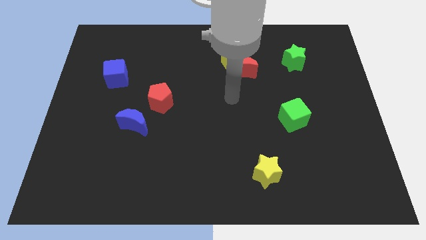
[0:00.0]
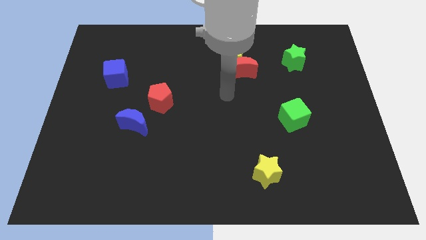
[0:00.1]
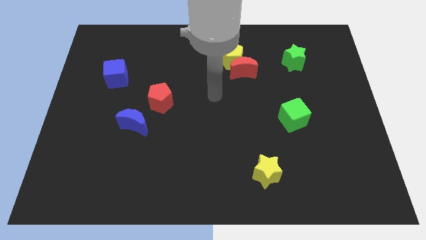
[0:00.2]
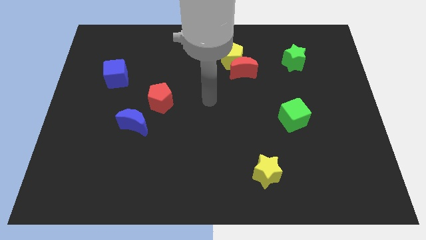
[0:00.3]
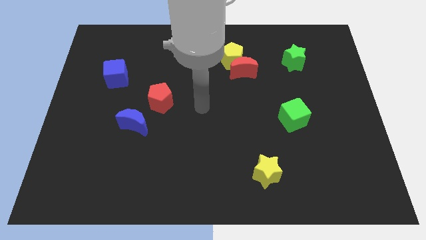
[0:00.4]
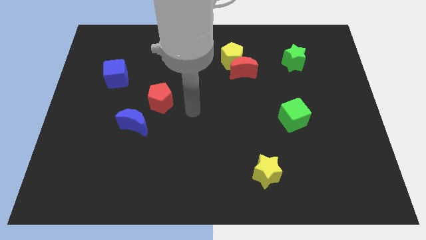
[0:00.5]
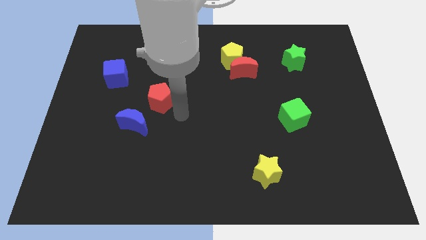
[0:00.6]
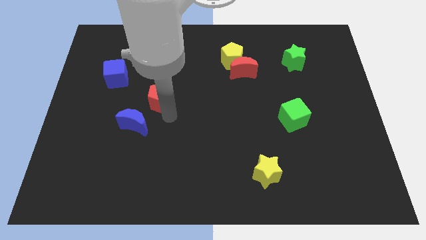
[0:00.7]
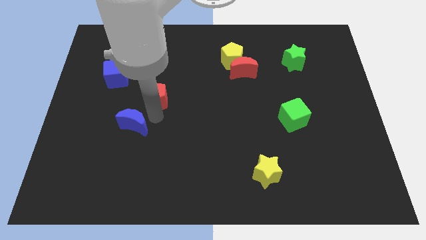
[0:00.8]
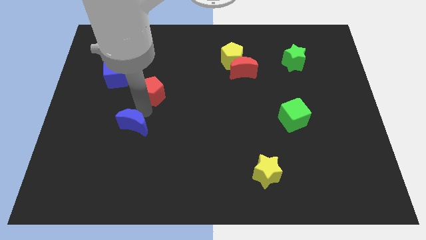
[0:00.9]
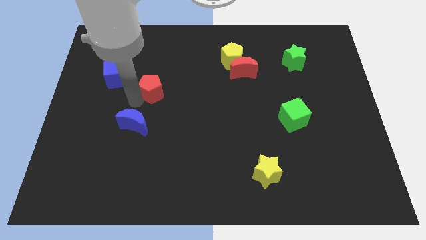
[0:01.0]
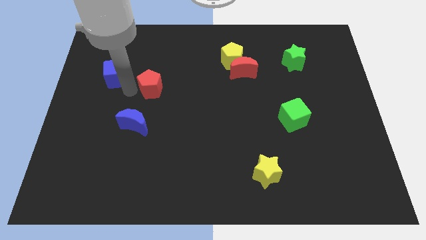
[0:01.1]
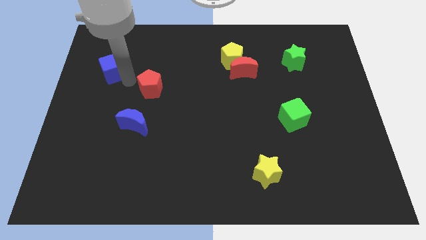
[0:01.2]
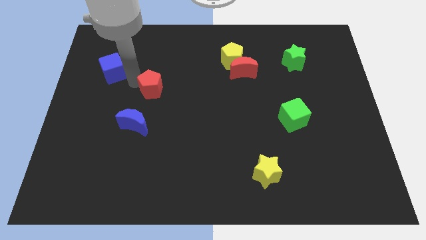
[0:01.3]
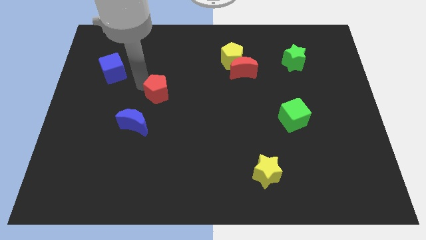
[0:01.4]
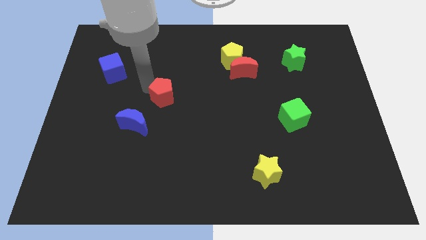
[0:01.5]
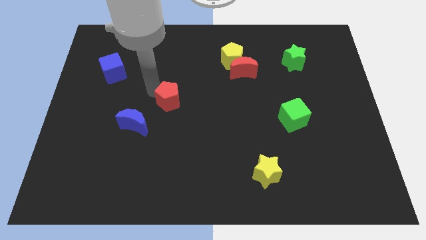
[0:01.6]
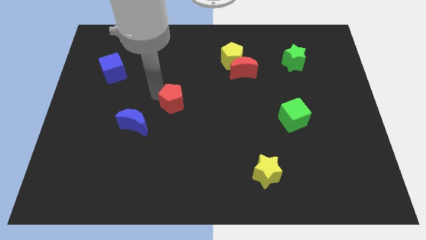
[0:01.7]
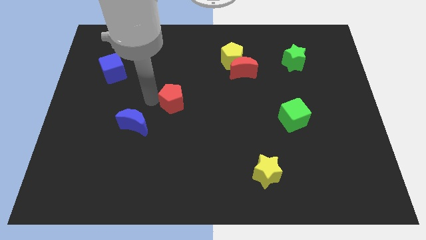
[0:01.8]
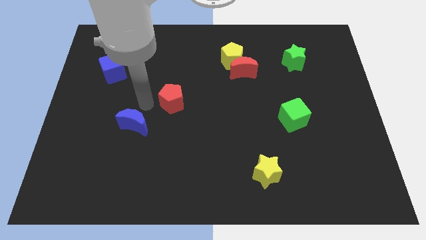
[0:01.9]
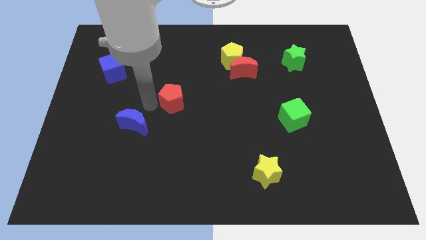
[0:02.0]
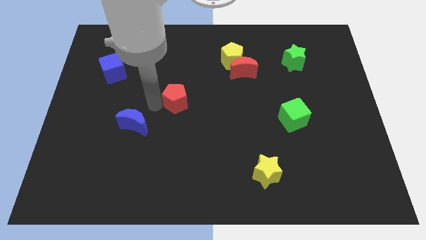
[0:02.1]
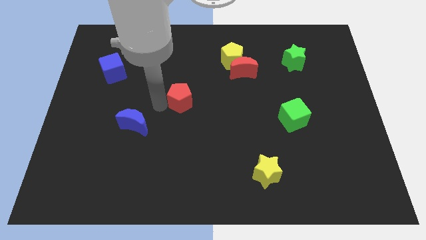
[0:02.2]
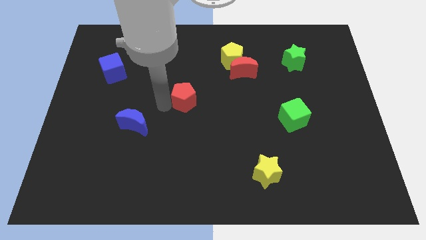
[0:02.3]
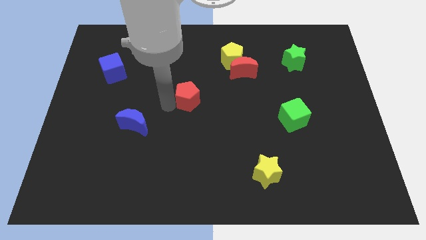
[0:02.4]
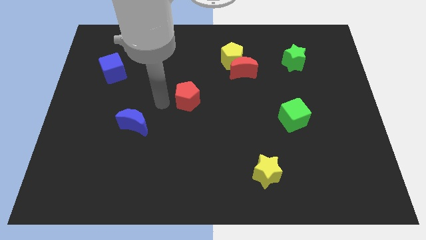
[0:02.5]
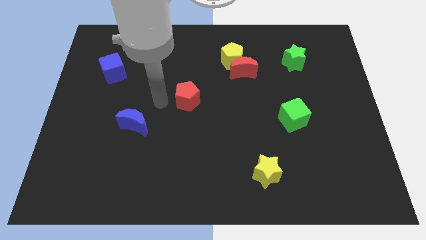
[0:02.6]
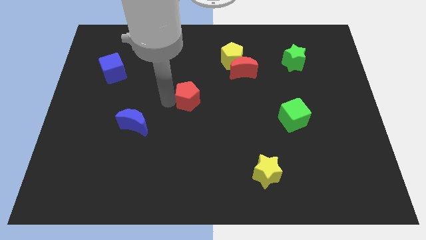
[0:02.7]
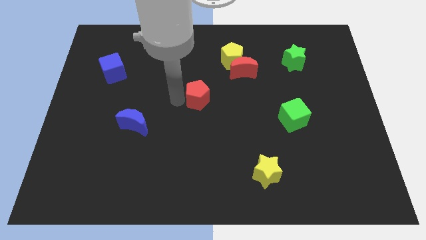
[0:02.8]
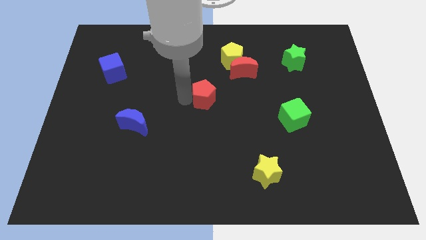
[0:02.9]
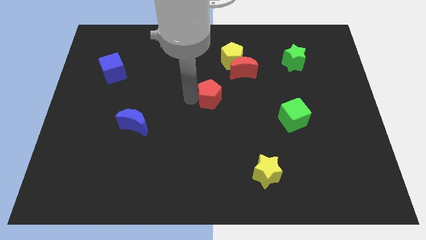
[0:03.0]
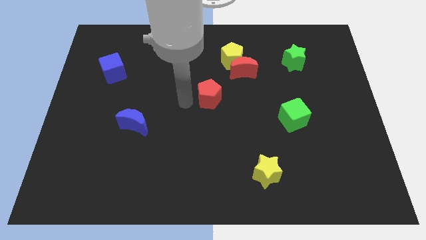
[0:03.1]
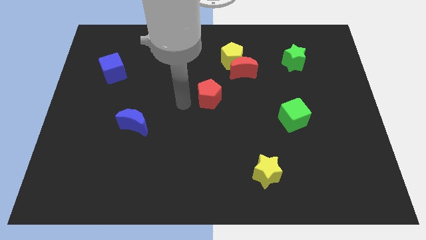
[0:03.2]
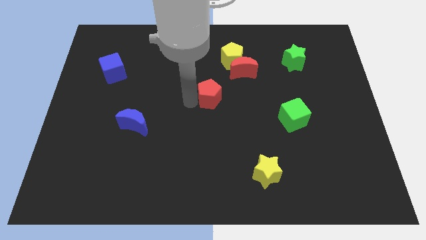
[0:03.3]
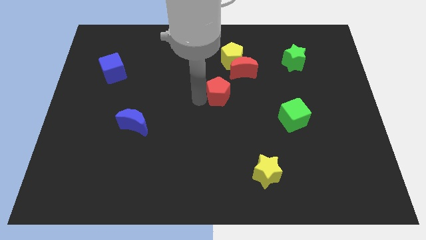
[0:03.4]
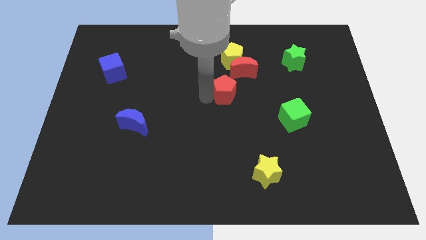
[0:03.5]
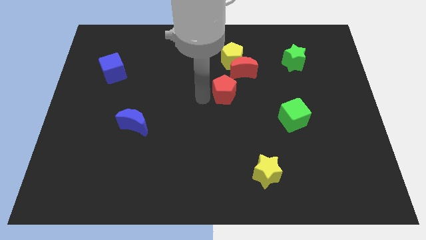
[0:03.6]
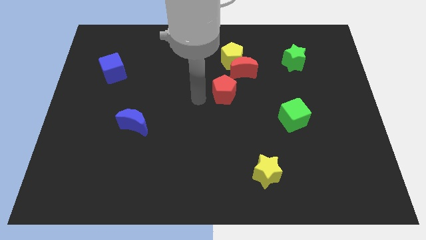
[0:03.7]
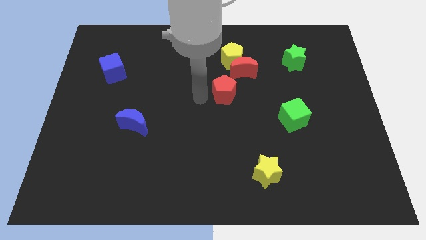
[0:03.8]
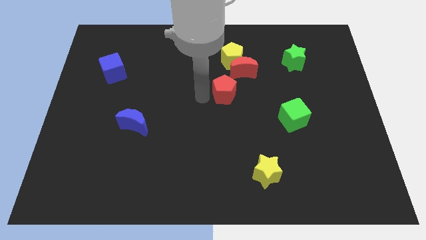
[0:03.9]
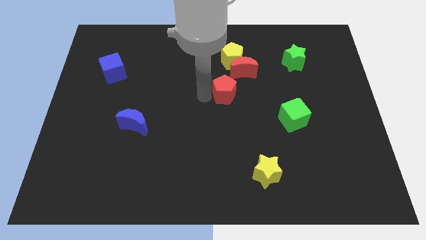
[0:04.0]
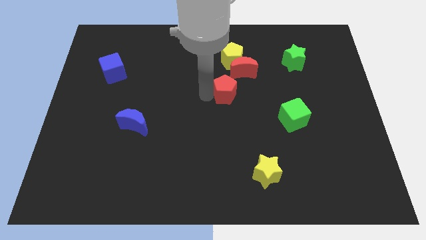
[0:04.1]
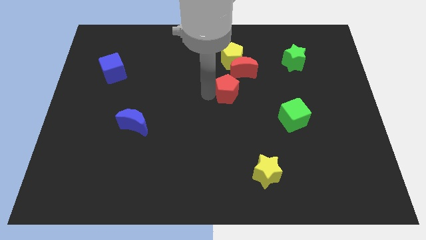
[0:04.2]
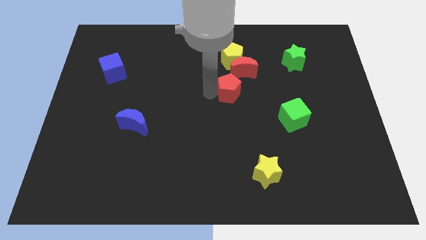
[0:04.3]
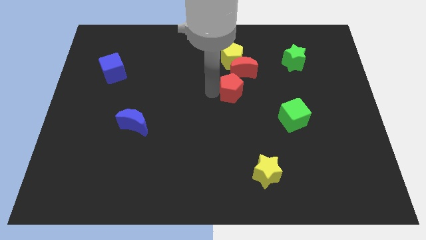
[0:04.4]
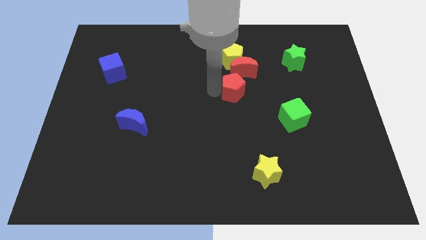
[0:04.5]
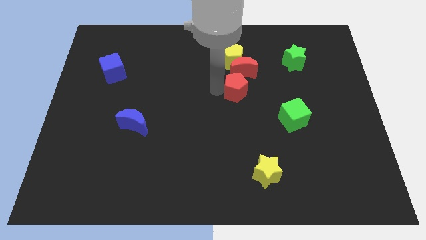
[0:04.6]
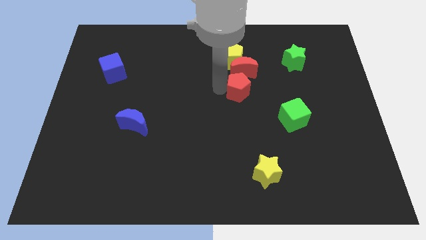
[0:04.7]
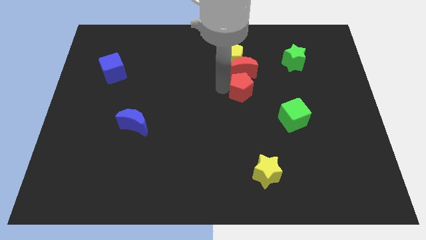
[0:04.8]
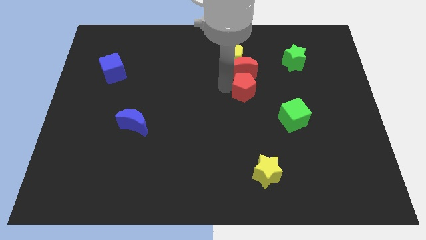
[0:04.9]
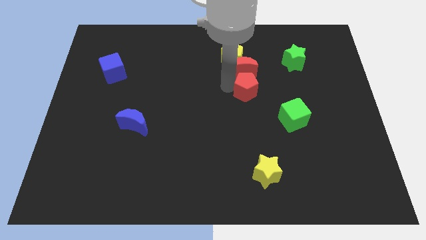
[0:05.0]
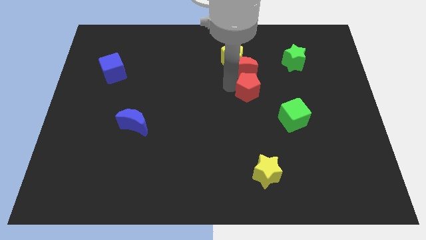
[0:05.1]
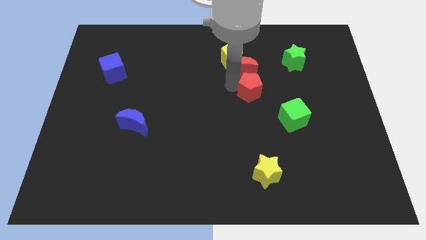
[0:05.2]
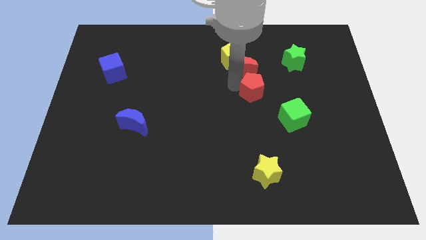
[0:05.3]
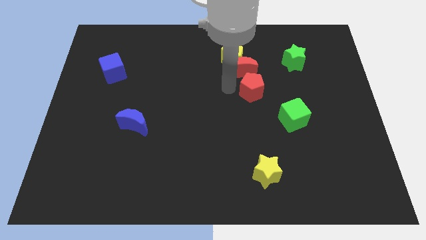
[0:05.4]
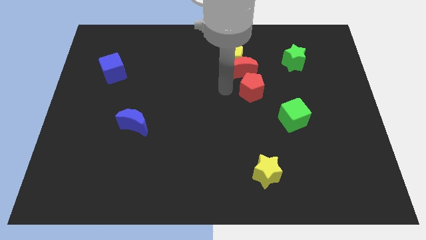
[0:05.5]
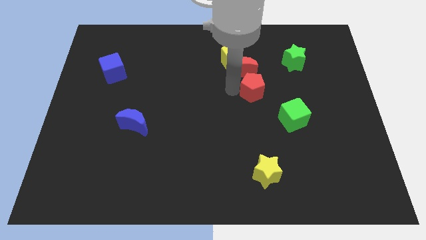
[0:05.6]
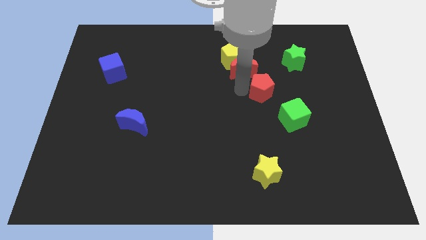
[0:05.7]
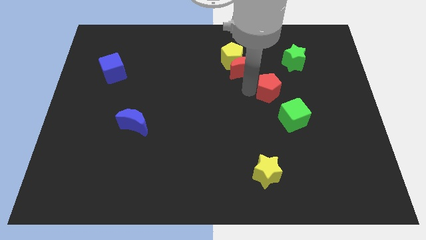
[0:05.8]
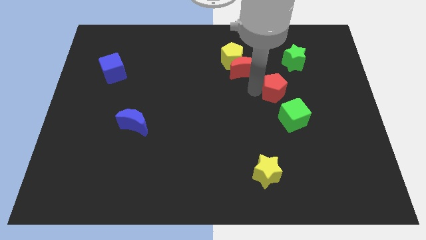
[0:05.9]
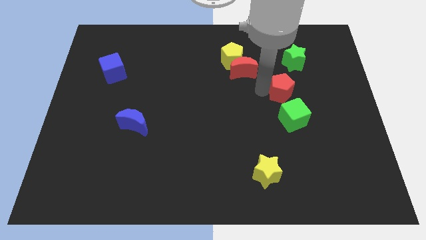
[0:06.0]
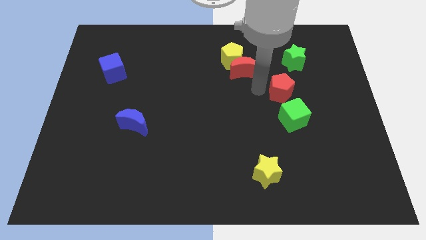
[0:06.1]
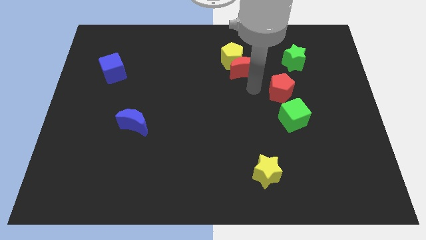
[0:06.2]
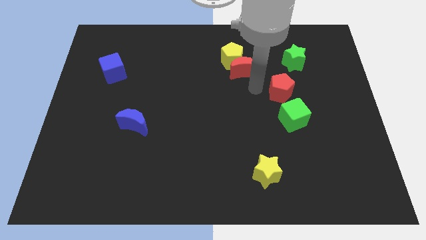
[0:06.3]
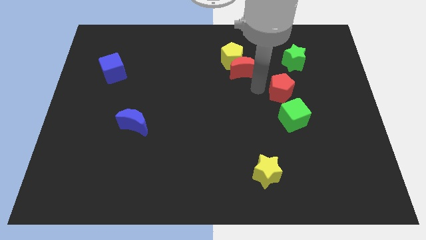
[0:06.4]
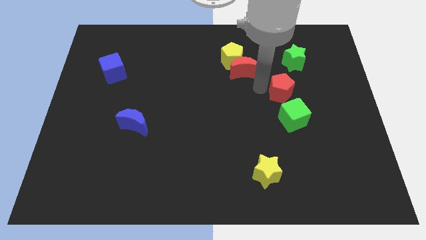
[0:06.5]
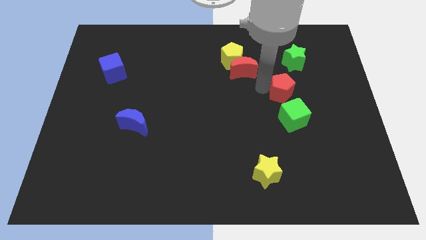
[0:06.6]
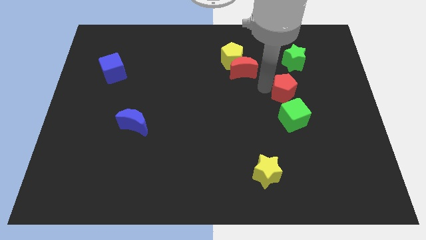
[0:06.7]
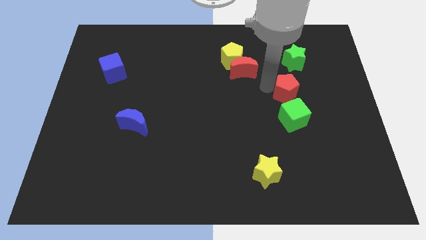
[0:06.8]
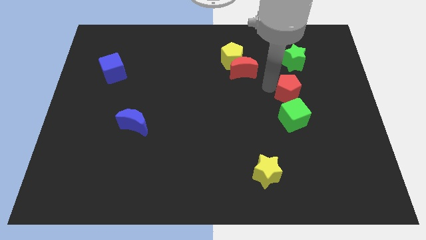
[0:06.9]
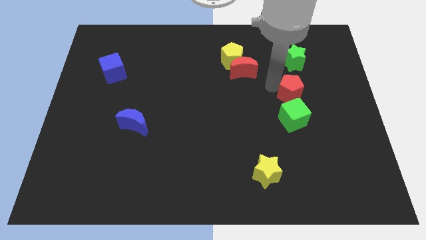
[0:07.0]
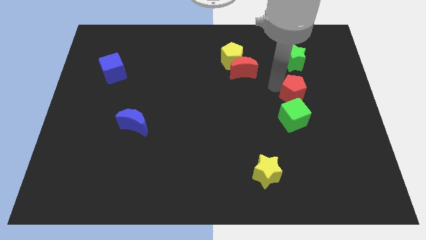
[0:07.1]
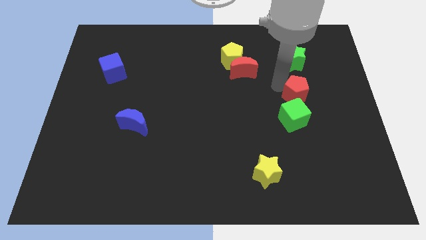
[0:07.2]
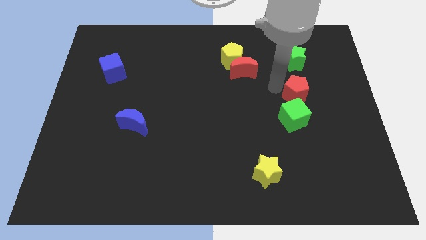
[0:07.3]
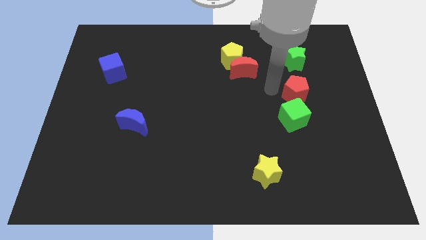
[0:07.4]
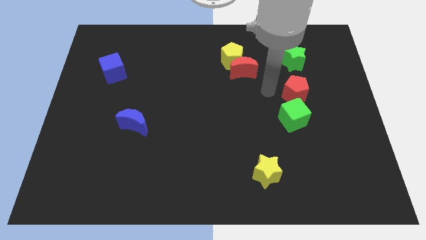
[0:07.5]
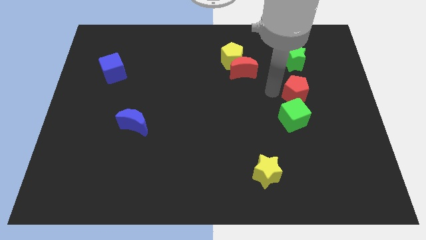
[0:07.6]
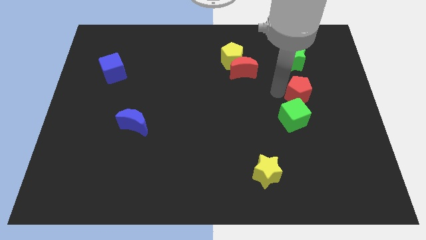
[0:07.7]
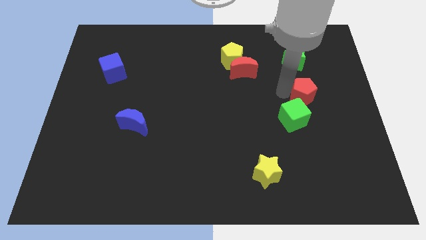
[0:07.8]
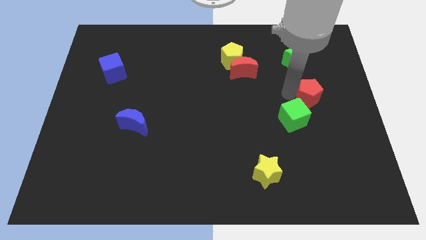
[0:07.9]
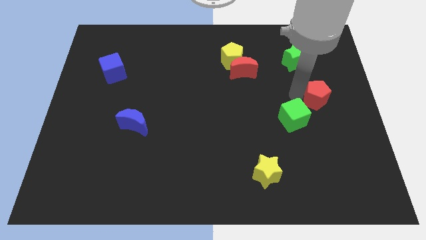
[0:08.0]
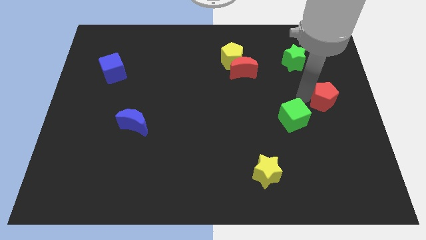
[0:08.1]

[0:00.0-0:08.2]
slide the red pentagon to the right side
